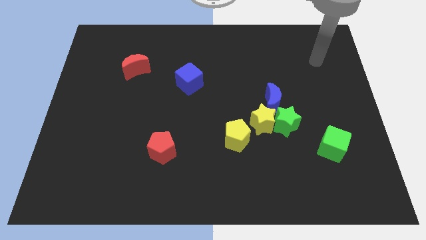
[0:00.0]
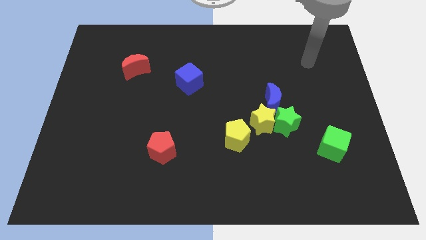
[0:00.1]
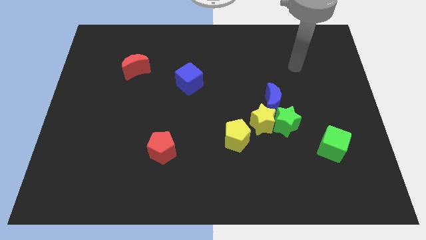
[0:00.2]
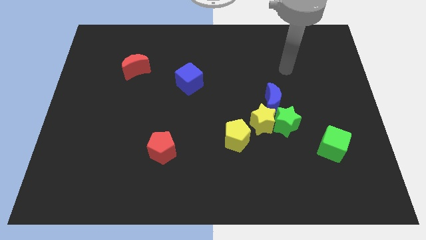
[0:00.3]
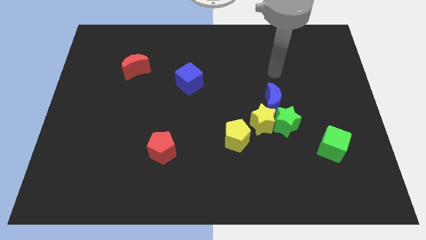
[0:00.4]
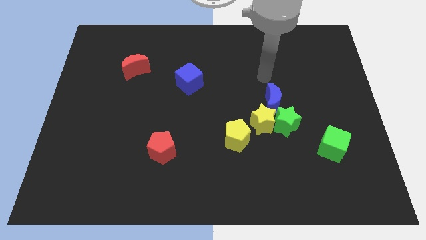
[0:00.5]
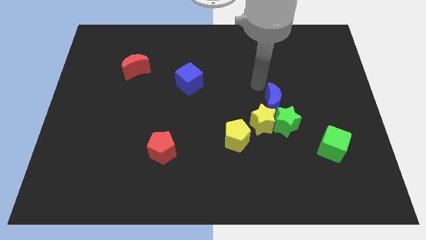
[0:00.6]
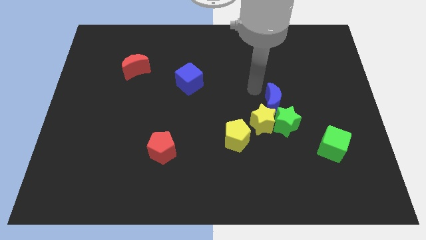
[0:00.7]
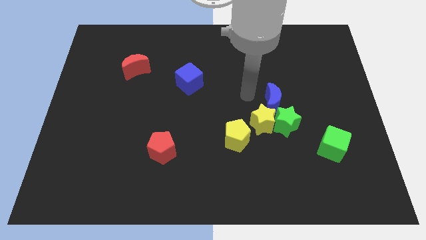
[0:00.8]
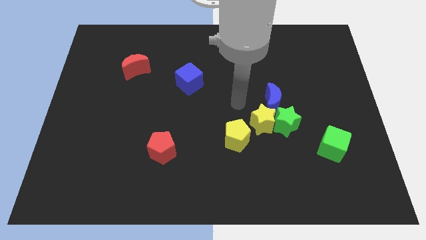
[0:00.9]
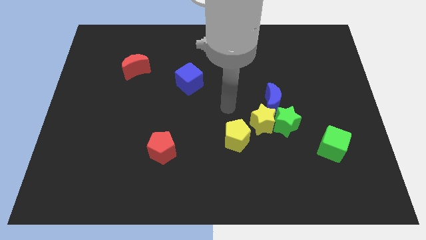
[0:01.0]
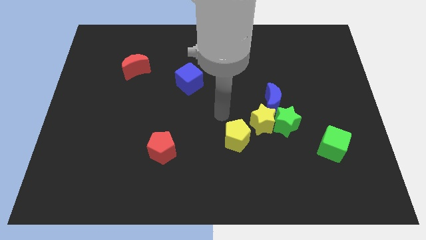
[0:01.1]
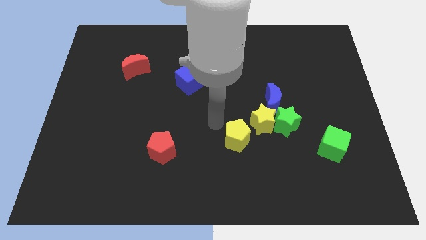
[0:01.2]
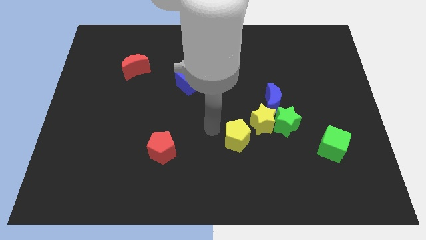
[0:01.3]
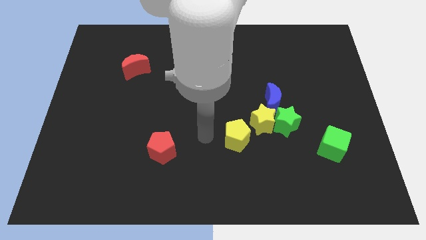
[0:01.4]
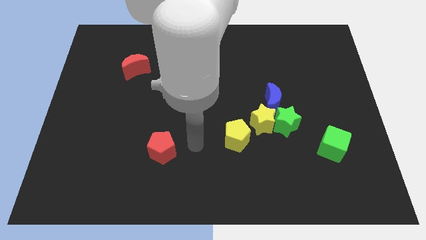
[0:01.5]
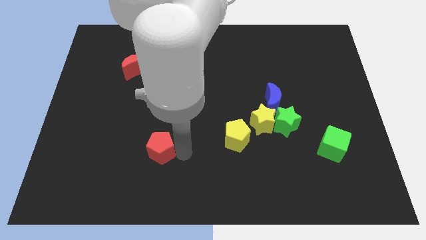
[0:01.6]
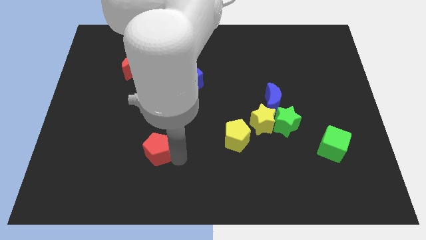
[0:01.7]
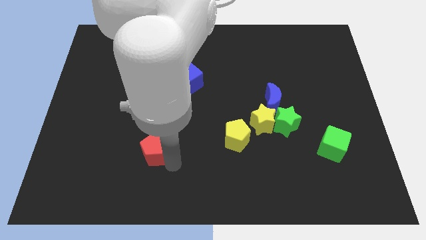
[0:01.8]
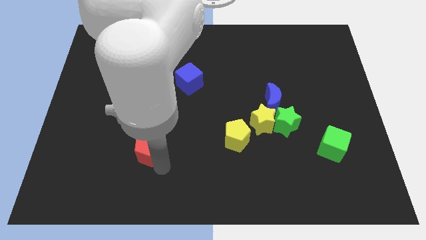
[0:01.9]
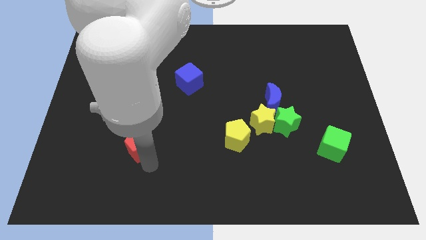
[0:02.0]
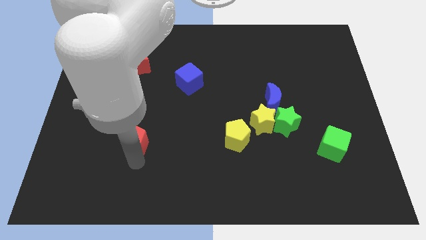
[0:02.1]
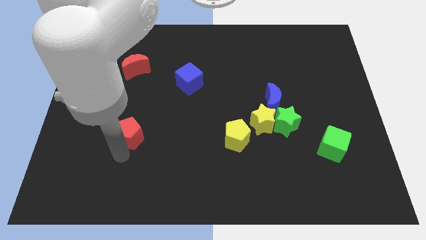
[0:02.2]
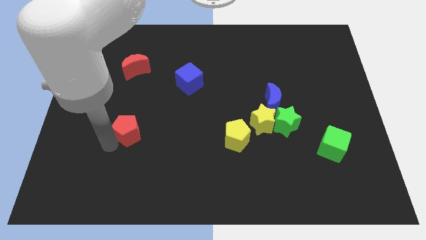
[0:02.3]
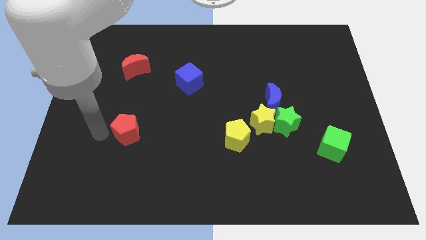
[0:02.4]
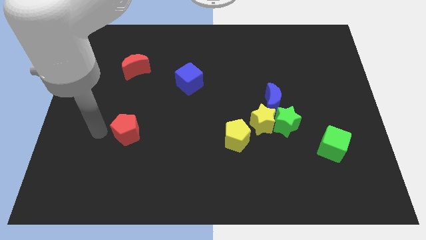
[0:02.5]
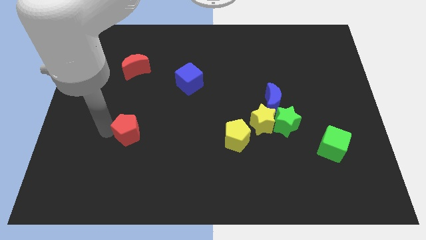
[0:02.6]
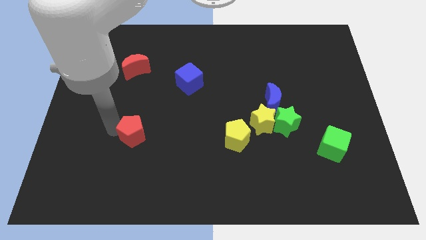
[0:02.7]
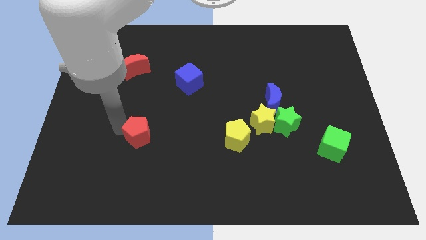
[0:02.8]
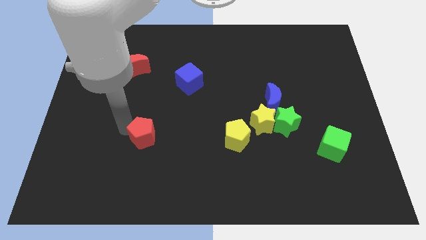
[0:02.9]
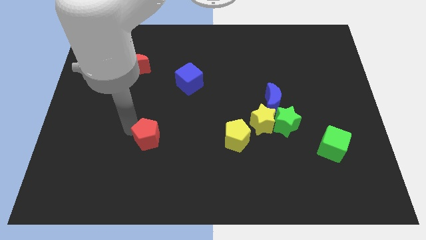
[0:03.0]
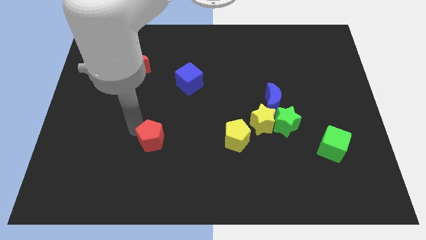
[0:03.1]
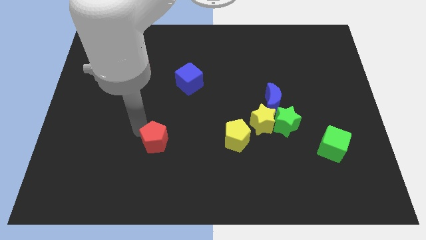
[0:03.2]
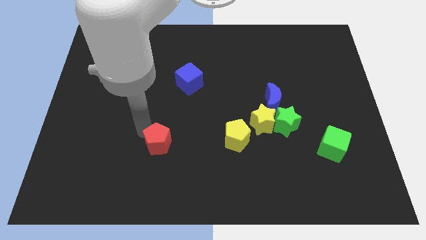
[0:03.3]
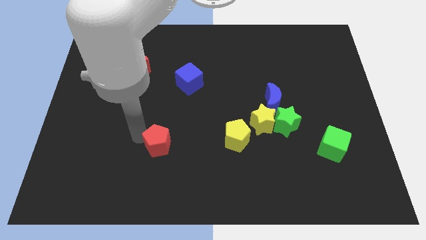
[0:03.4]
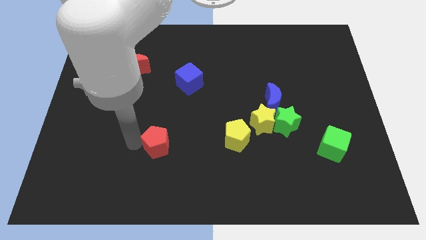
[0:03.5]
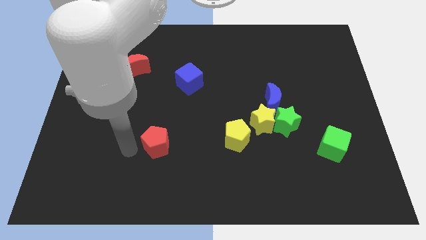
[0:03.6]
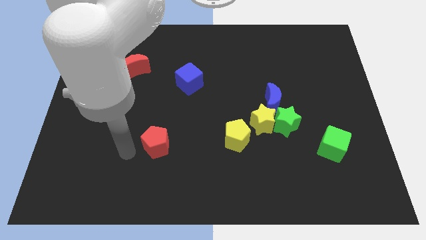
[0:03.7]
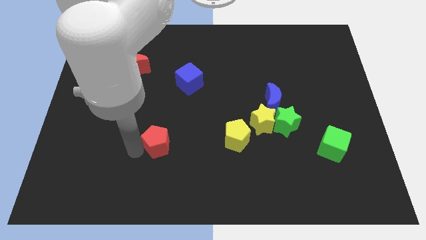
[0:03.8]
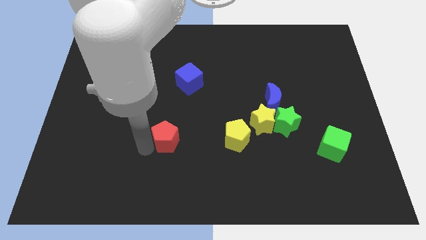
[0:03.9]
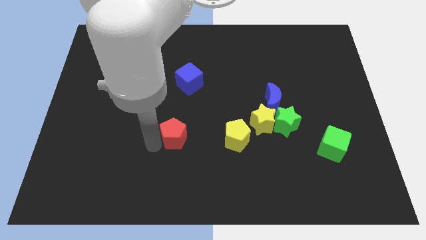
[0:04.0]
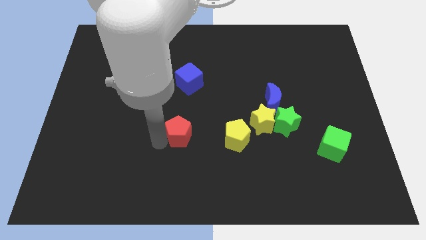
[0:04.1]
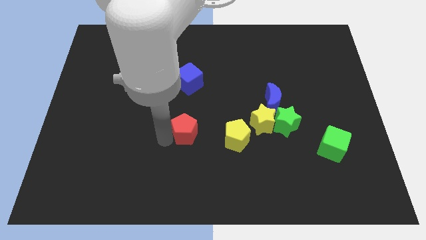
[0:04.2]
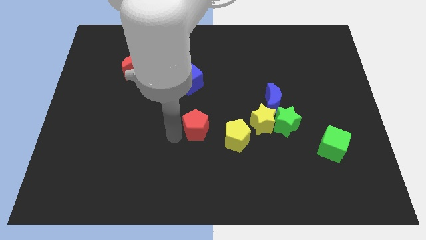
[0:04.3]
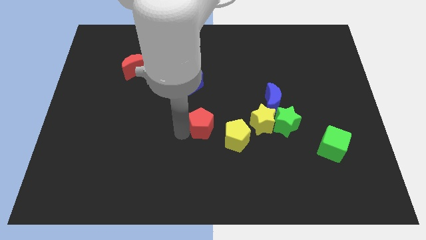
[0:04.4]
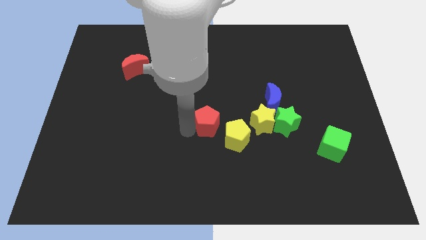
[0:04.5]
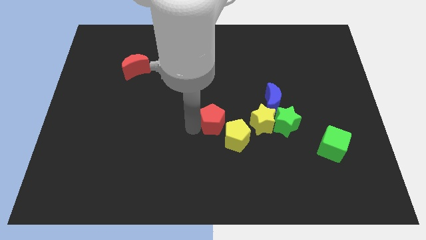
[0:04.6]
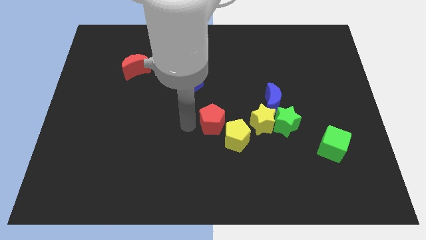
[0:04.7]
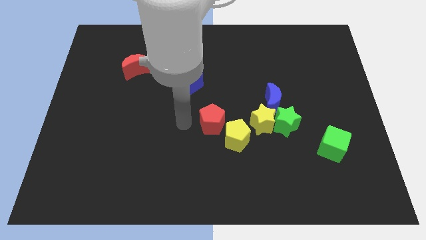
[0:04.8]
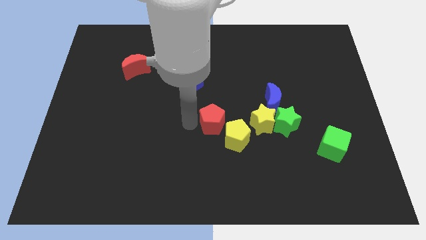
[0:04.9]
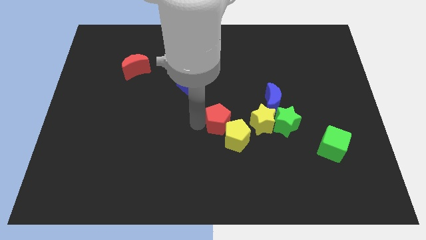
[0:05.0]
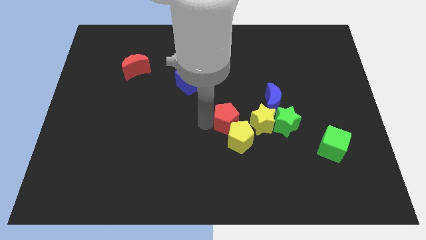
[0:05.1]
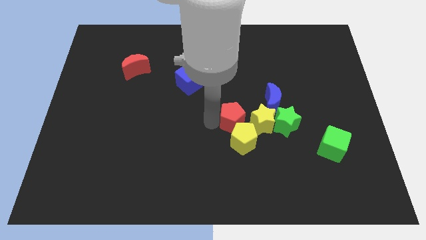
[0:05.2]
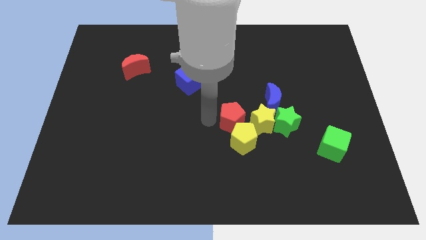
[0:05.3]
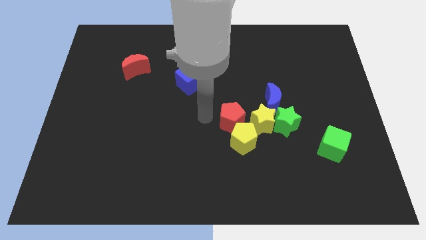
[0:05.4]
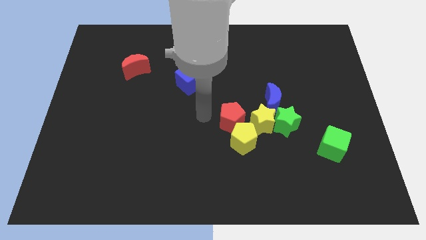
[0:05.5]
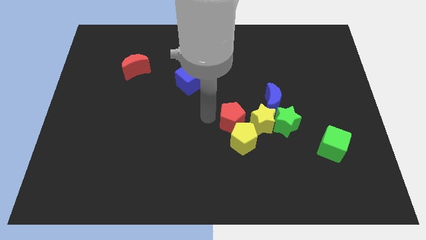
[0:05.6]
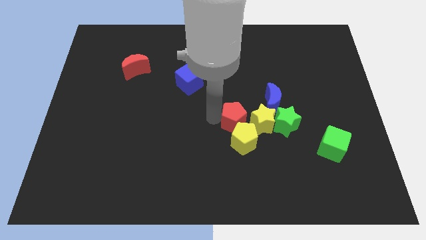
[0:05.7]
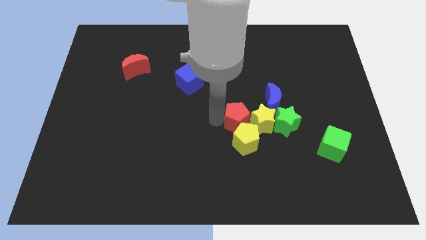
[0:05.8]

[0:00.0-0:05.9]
move the red pentagon to the yellow star

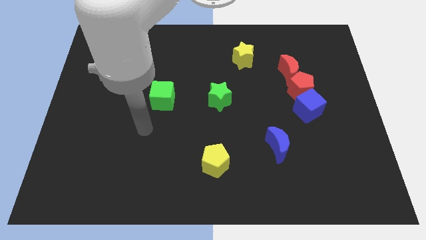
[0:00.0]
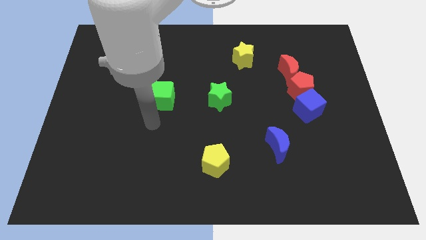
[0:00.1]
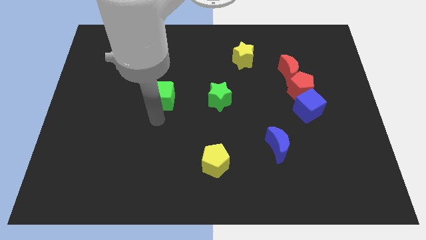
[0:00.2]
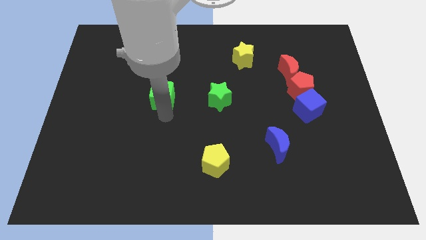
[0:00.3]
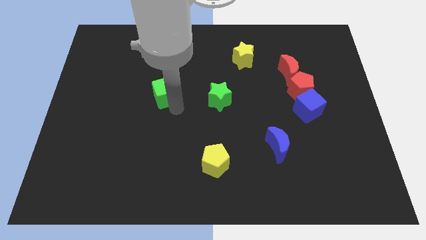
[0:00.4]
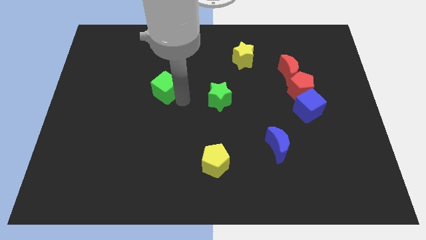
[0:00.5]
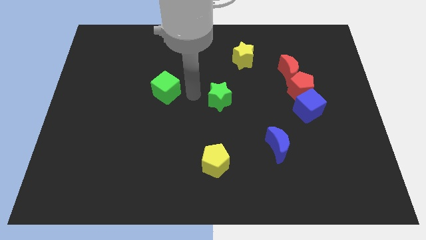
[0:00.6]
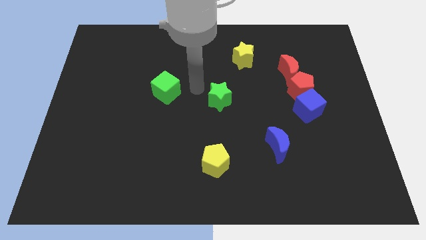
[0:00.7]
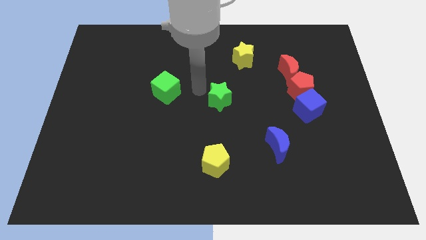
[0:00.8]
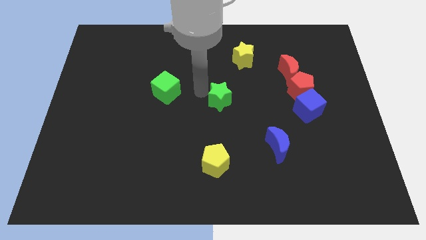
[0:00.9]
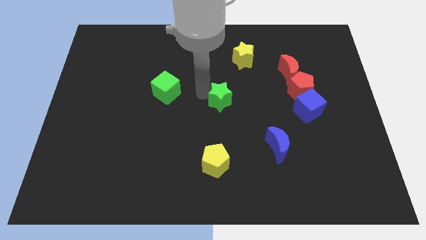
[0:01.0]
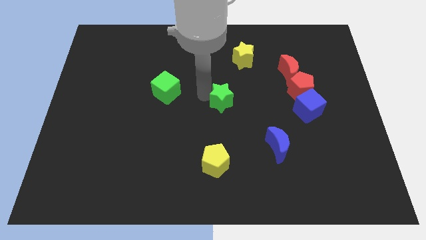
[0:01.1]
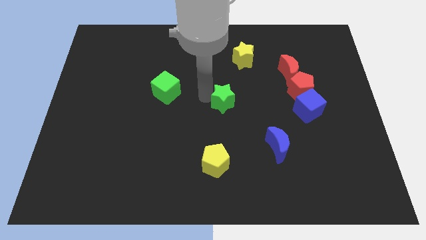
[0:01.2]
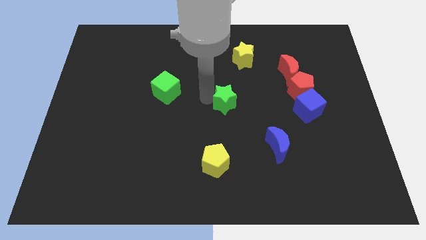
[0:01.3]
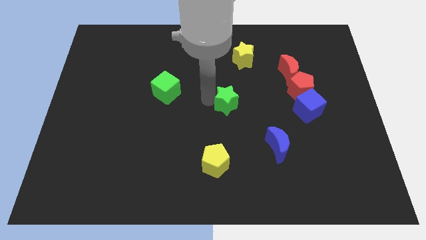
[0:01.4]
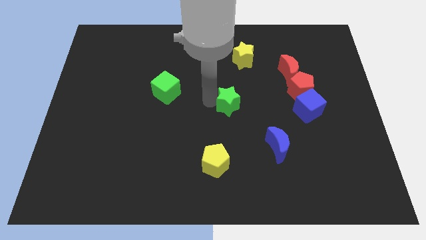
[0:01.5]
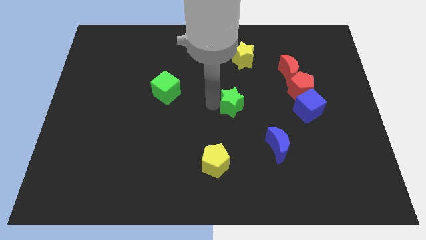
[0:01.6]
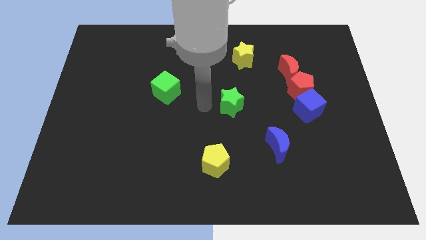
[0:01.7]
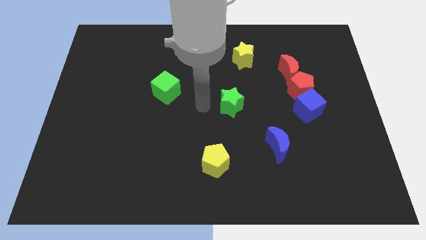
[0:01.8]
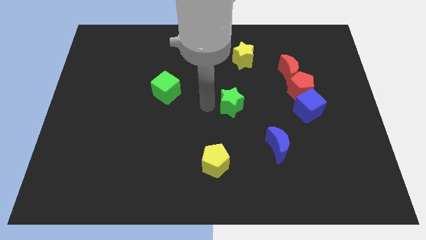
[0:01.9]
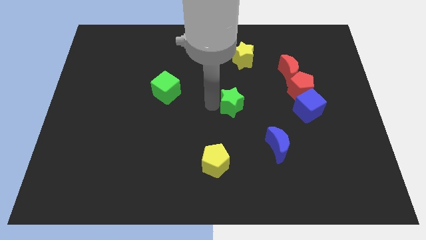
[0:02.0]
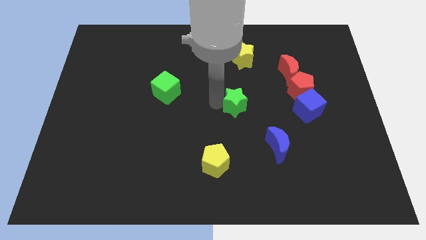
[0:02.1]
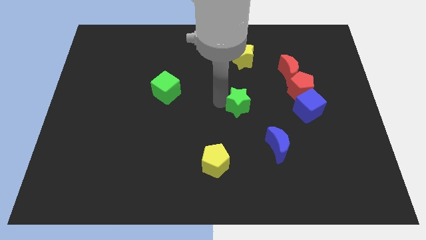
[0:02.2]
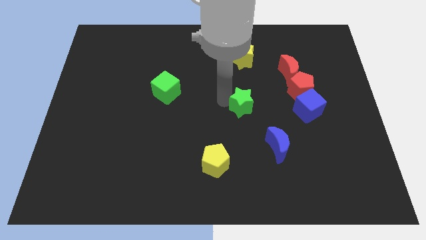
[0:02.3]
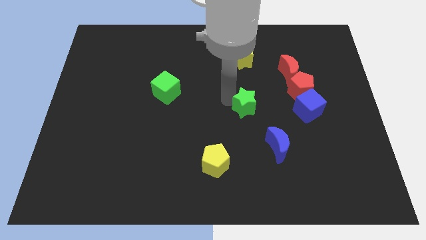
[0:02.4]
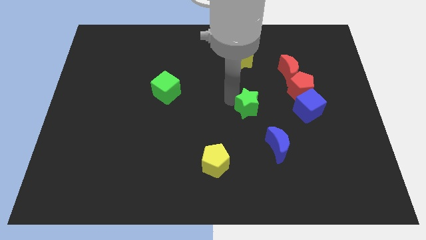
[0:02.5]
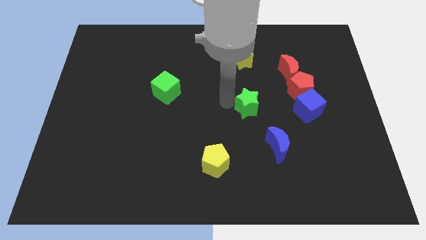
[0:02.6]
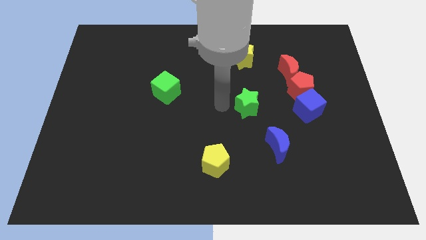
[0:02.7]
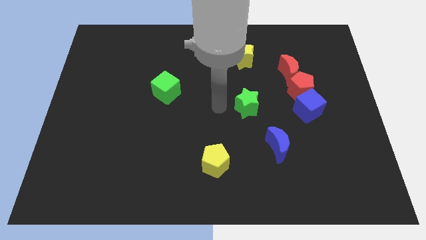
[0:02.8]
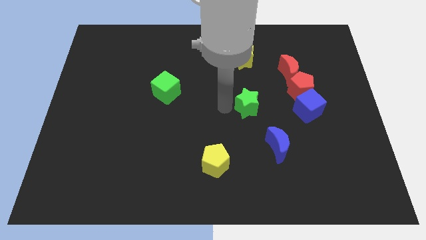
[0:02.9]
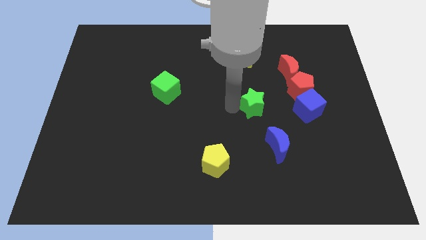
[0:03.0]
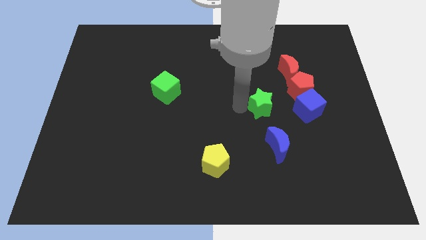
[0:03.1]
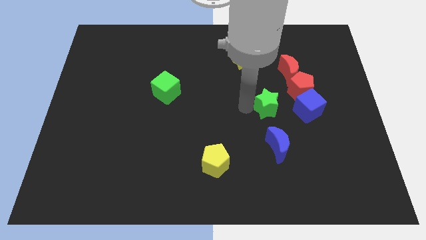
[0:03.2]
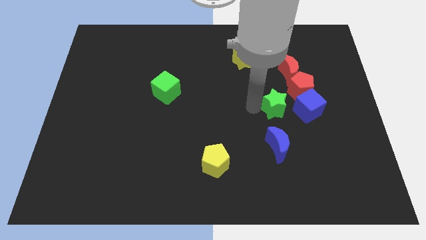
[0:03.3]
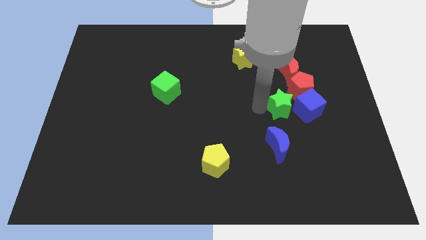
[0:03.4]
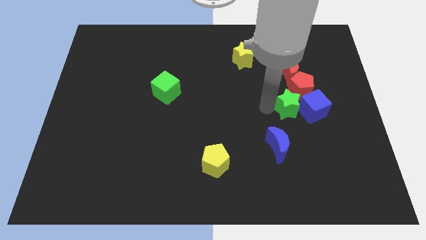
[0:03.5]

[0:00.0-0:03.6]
push the green star close to the blue cube
